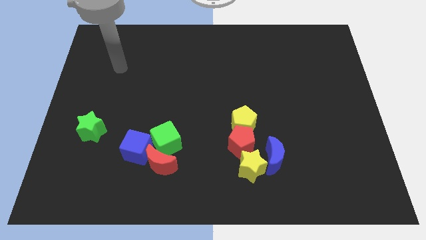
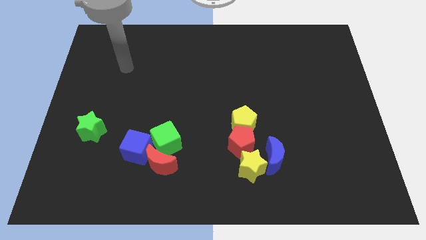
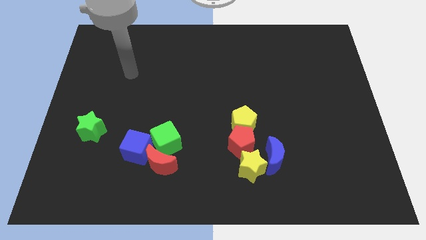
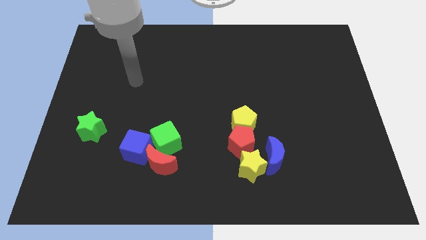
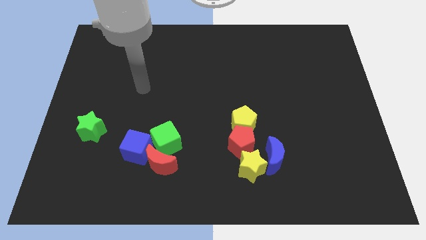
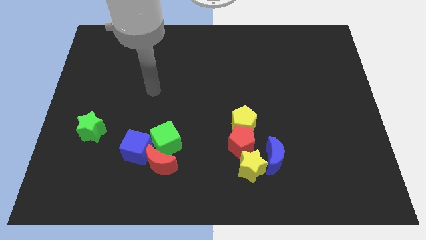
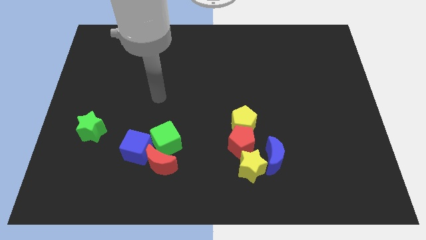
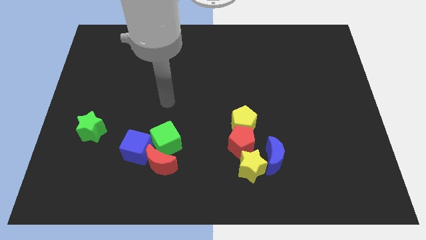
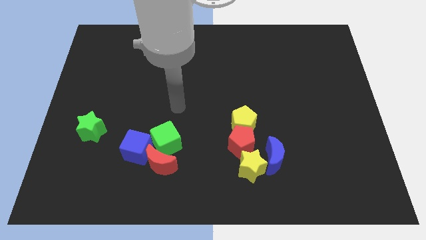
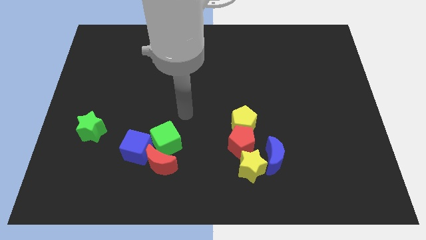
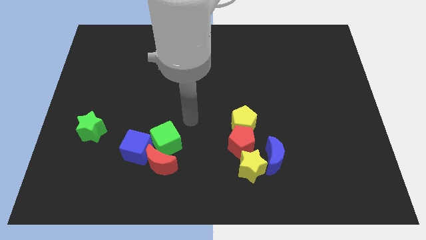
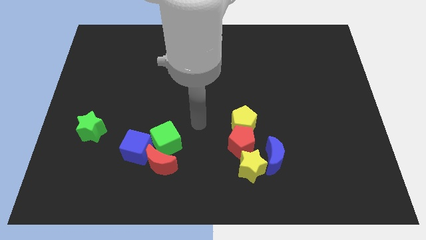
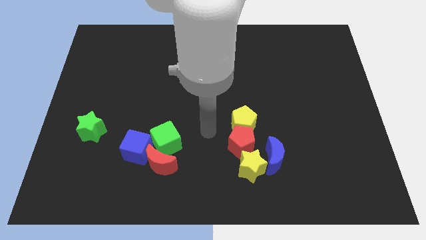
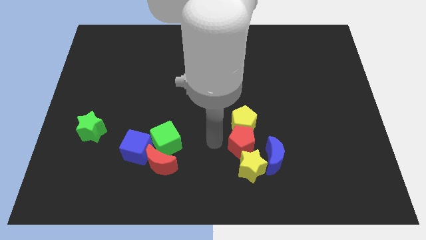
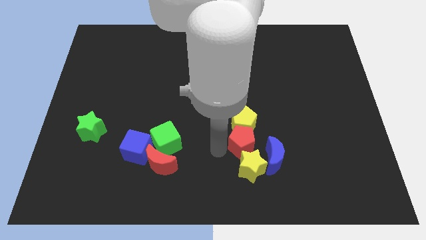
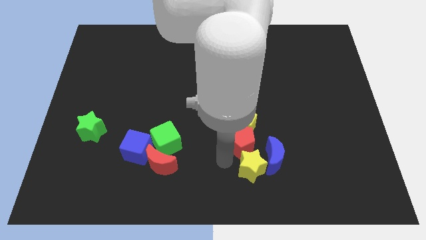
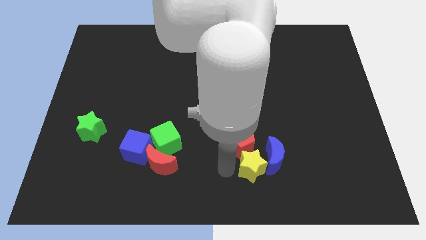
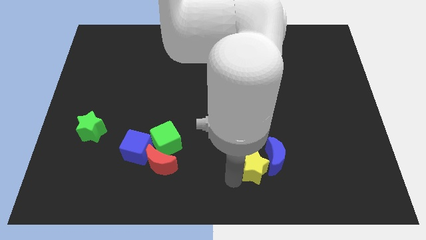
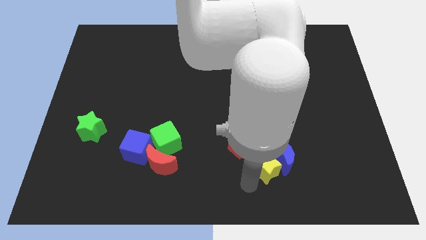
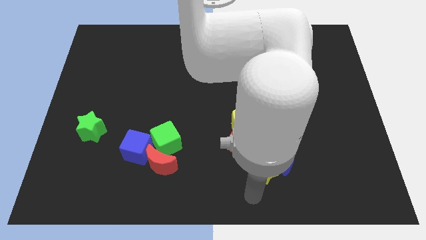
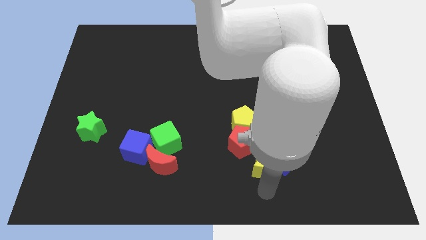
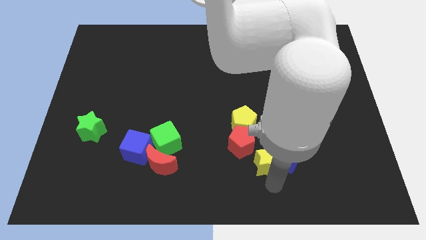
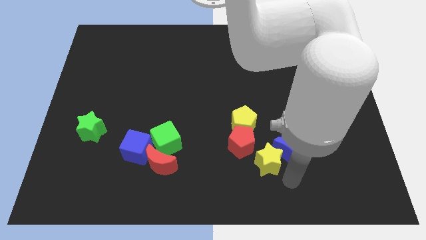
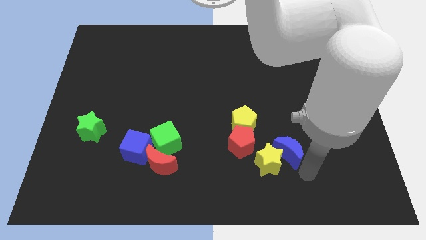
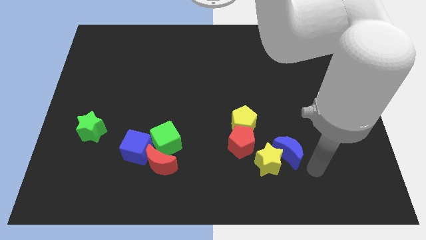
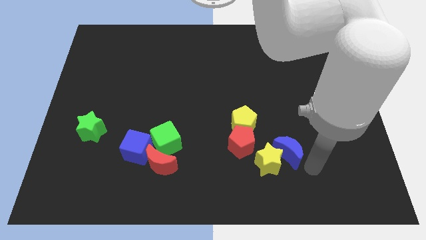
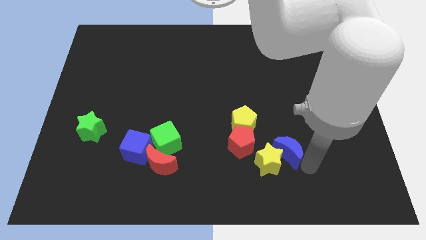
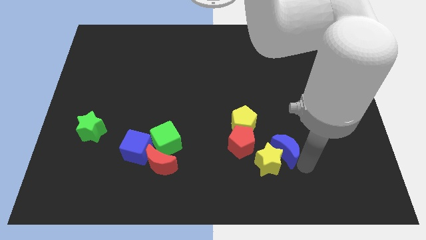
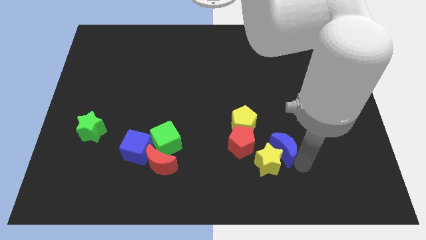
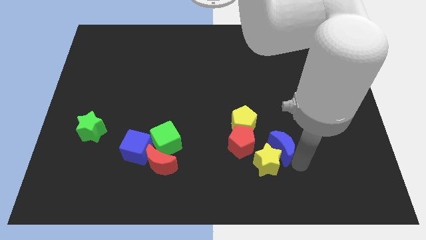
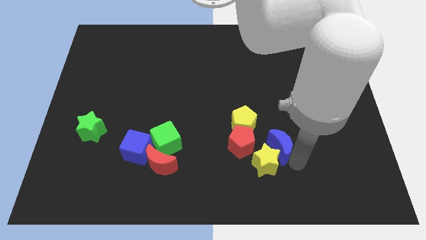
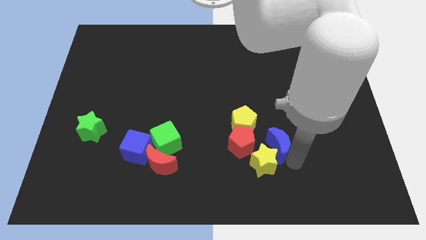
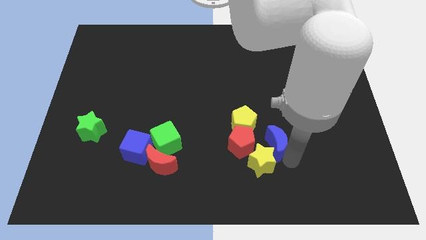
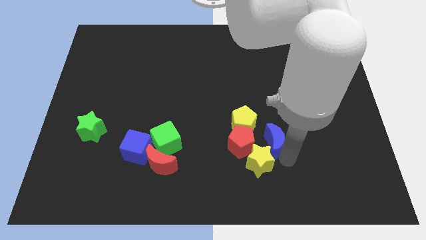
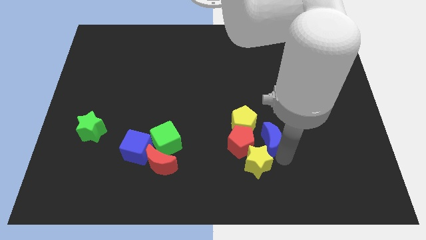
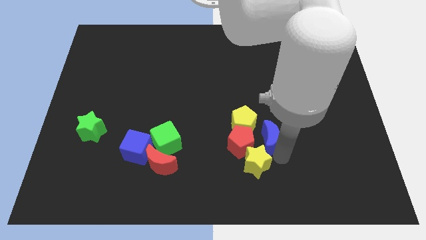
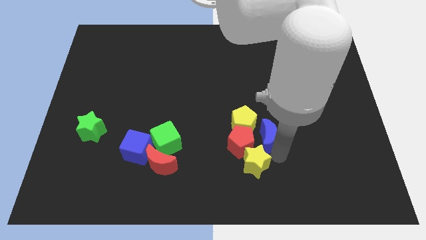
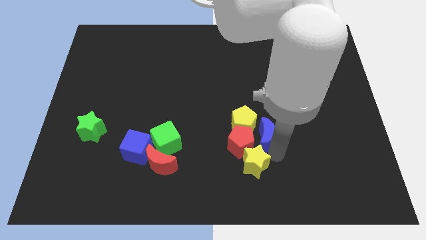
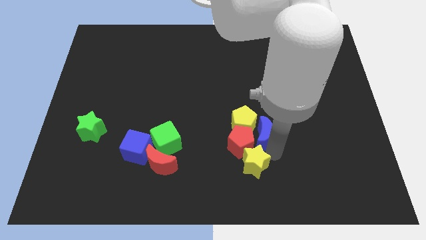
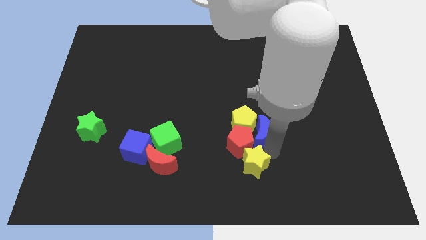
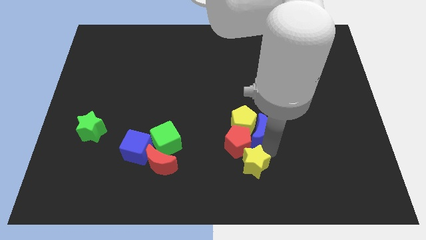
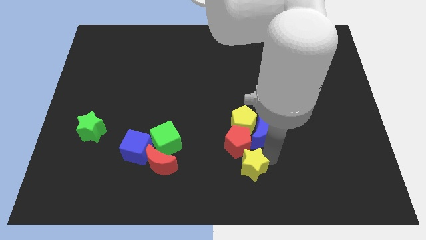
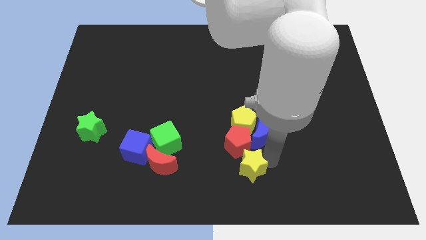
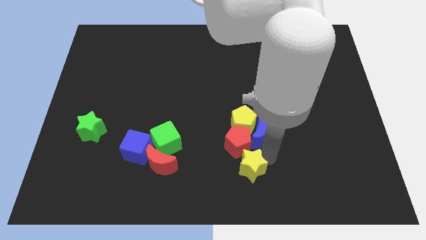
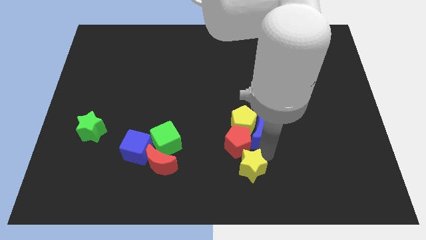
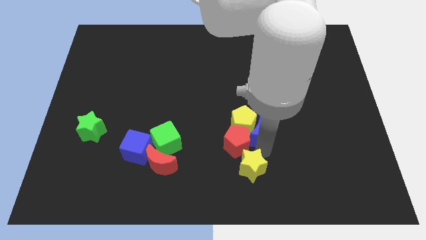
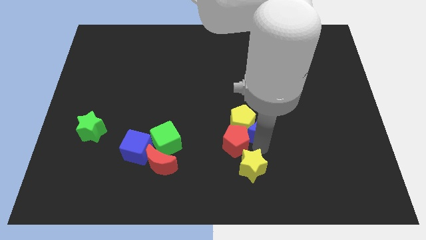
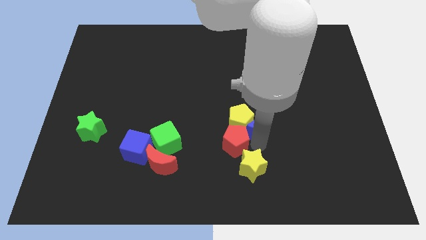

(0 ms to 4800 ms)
move the blue moon up and to the left a little bit

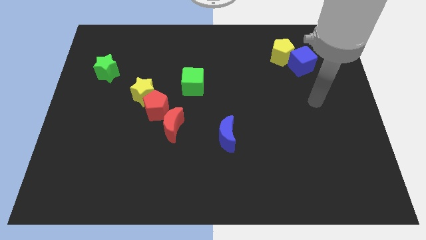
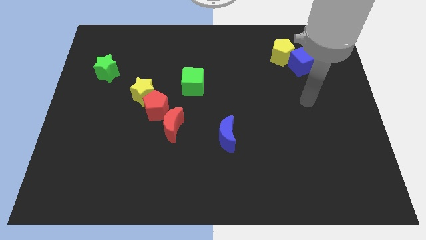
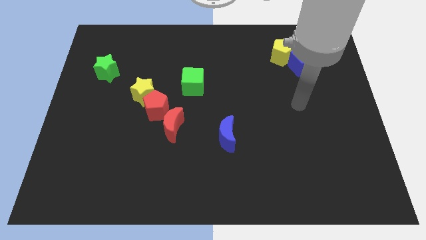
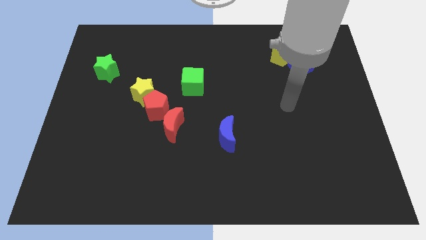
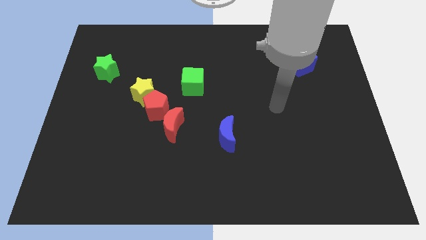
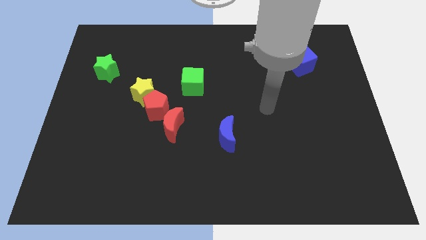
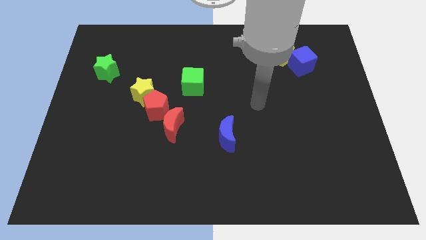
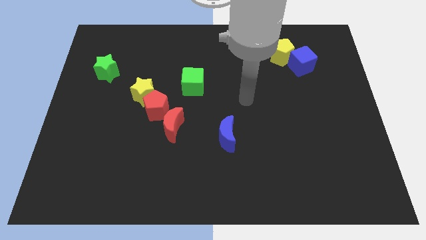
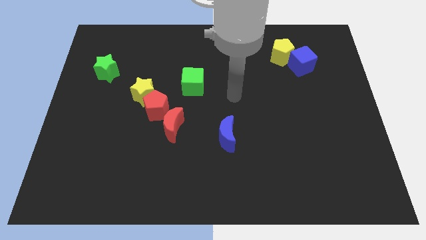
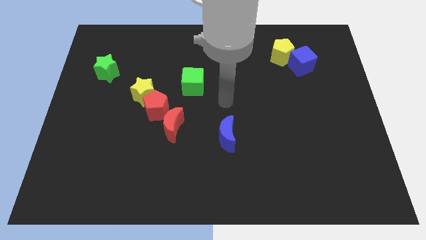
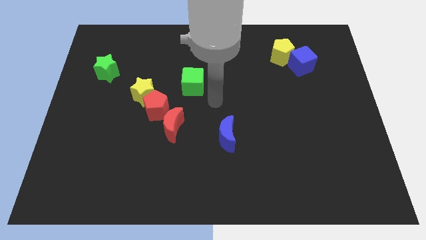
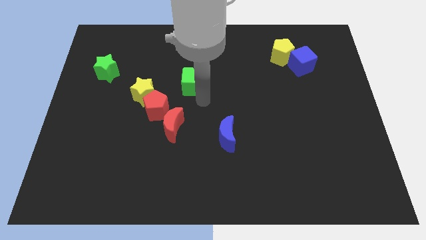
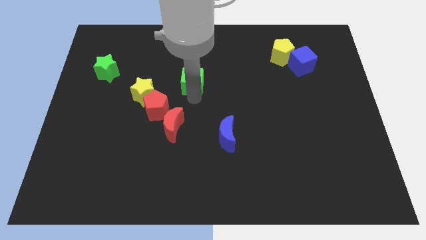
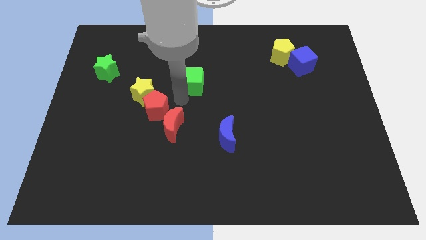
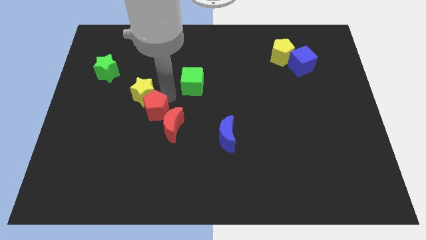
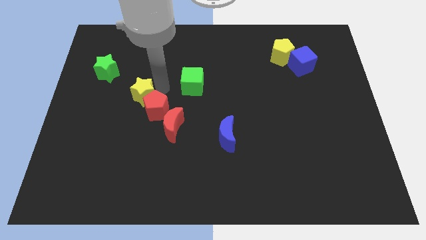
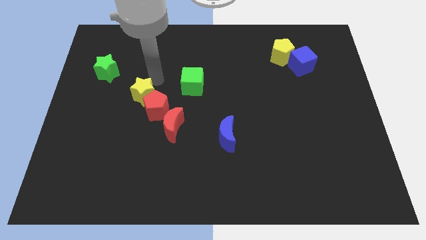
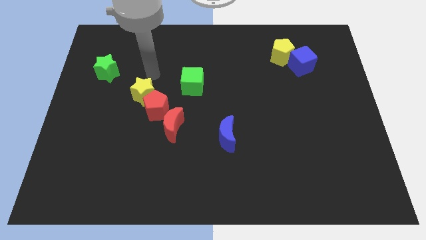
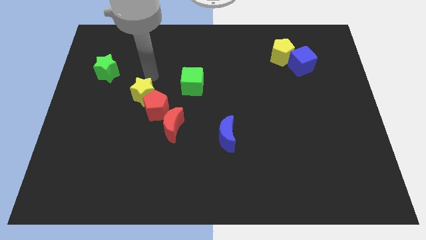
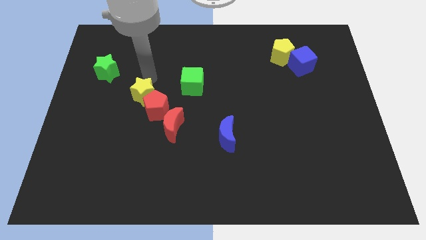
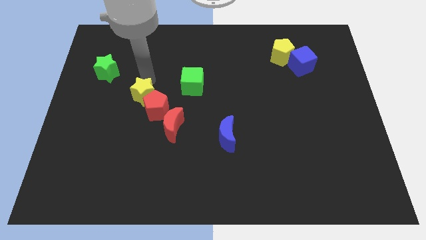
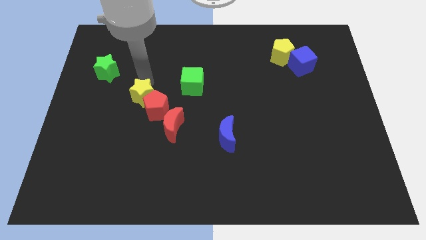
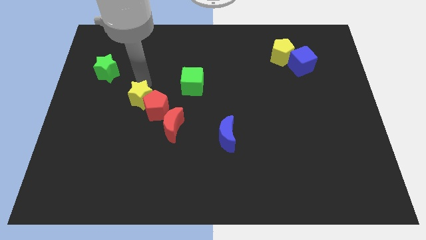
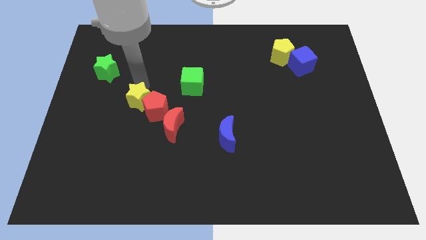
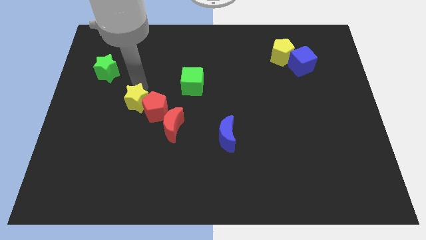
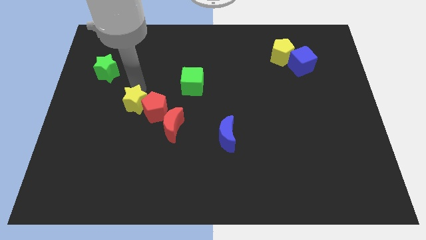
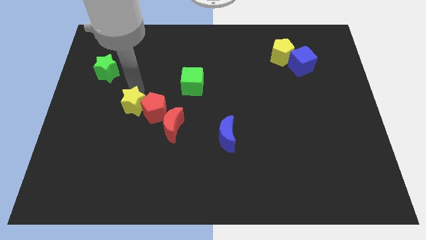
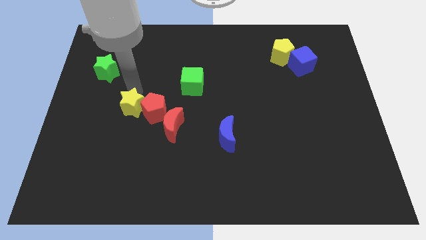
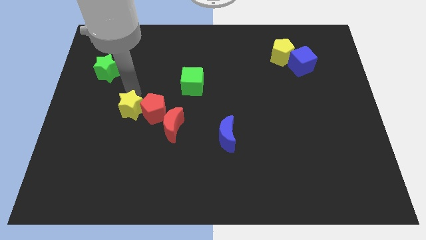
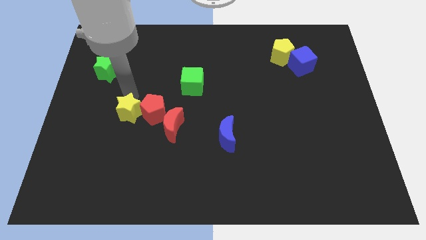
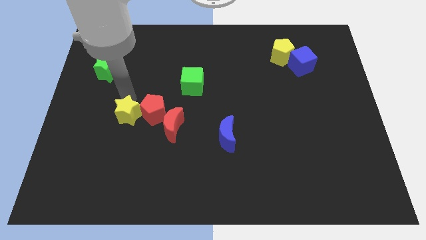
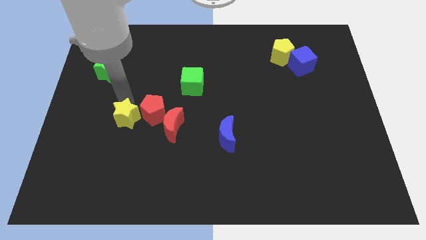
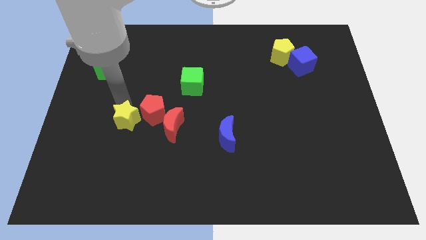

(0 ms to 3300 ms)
slightly slide the yellow star downwards
